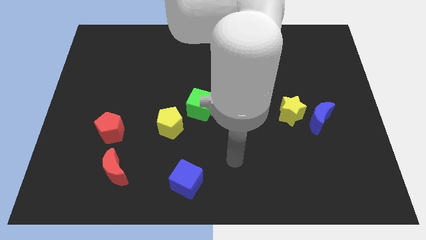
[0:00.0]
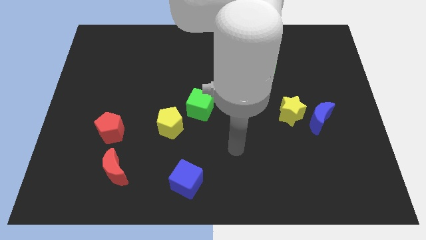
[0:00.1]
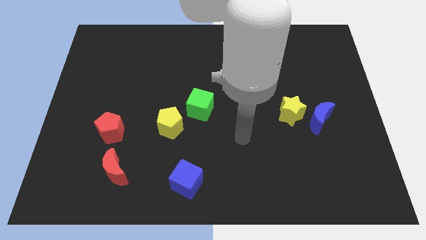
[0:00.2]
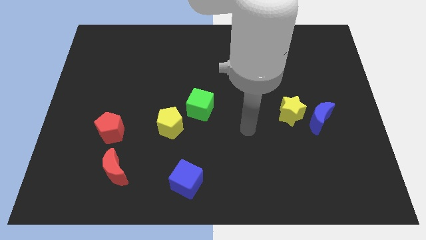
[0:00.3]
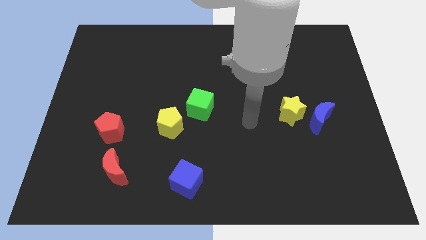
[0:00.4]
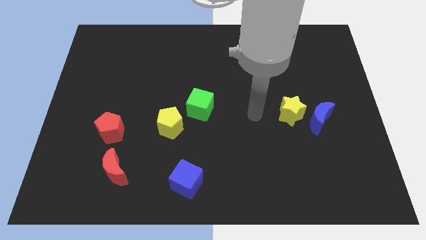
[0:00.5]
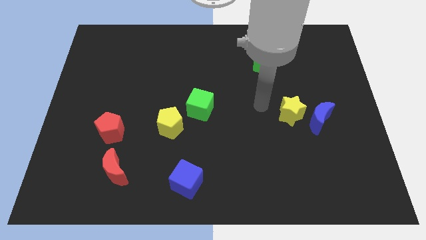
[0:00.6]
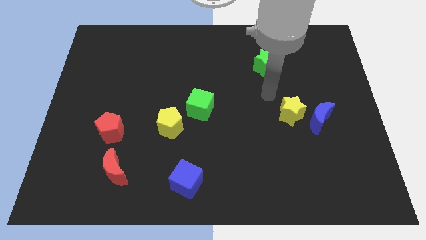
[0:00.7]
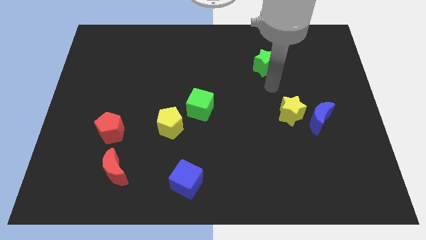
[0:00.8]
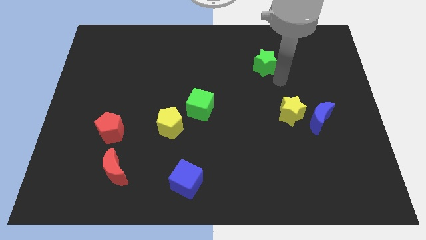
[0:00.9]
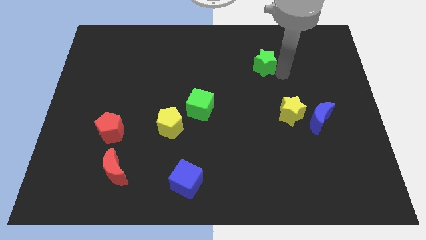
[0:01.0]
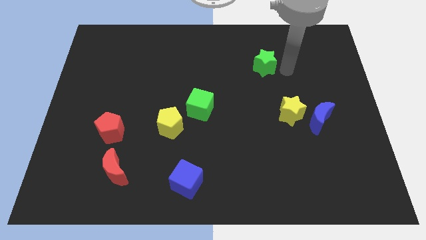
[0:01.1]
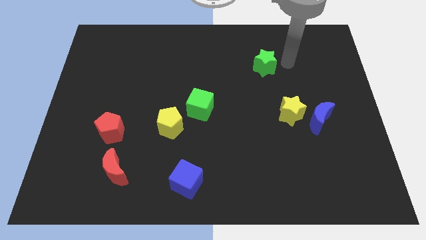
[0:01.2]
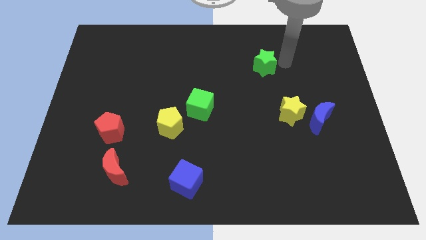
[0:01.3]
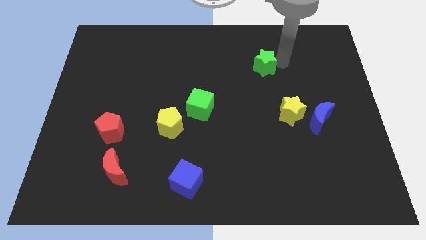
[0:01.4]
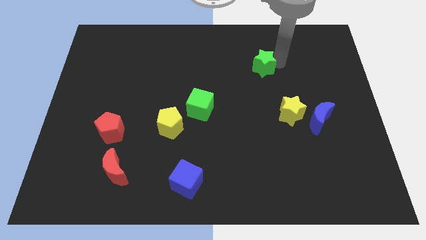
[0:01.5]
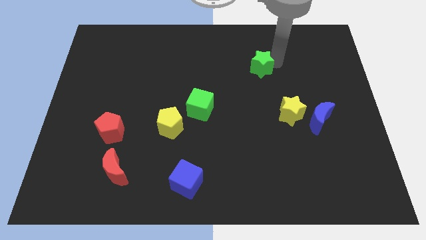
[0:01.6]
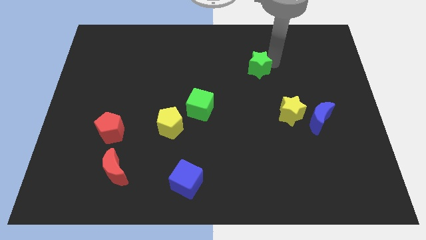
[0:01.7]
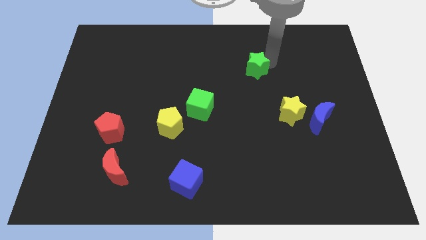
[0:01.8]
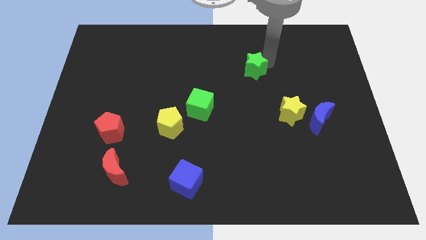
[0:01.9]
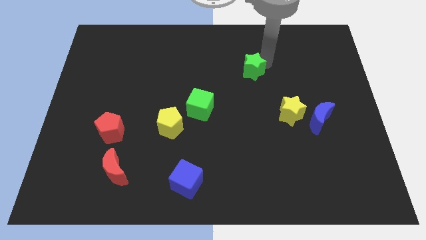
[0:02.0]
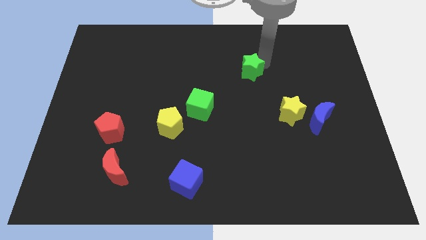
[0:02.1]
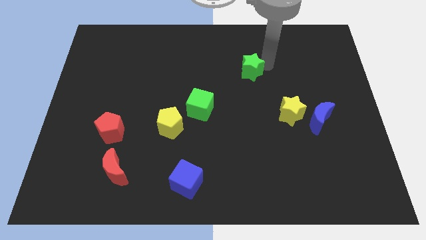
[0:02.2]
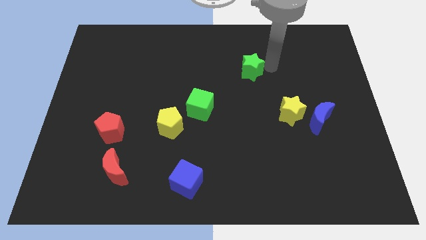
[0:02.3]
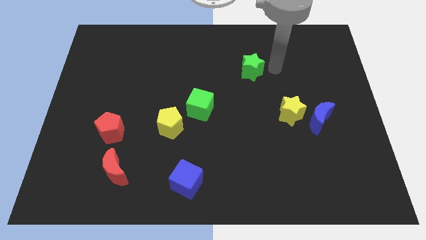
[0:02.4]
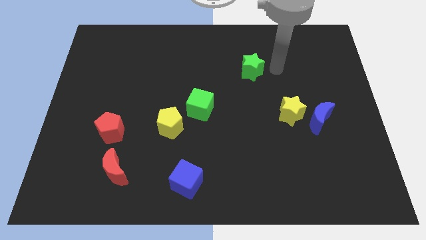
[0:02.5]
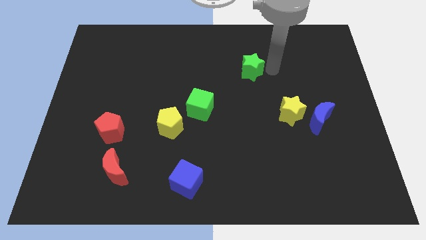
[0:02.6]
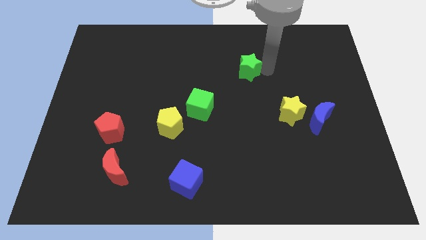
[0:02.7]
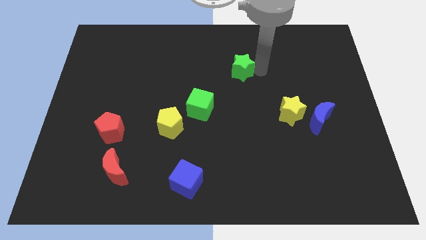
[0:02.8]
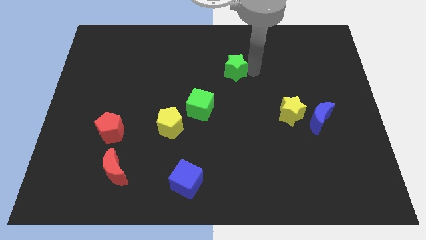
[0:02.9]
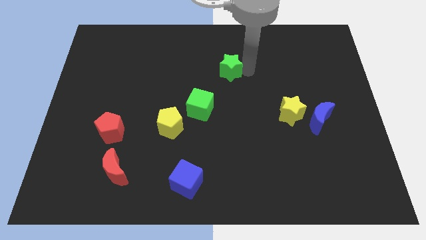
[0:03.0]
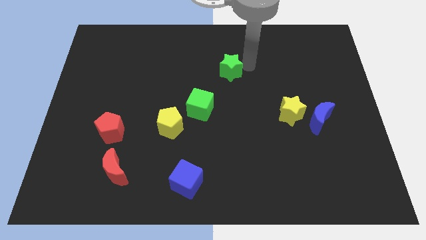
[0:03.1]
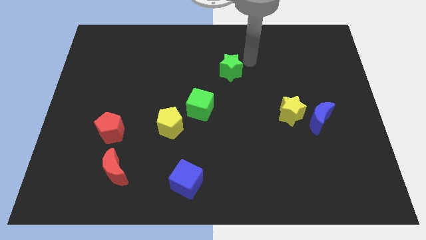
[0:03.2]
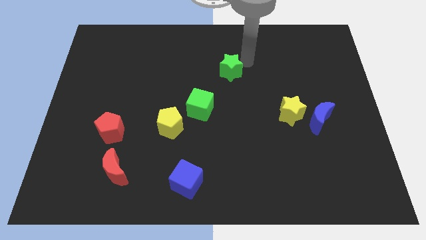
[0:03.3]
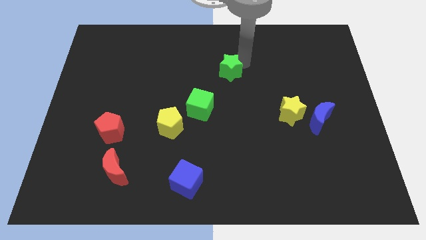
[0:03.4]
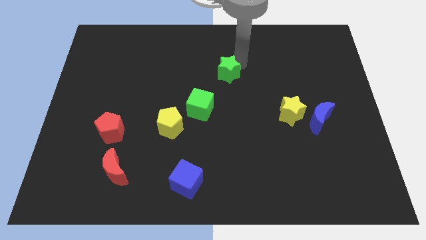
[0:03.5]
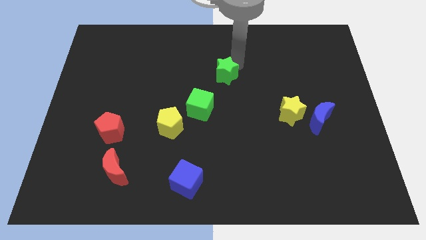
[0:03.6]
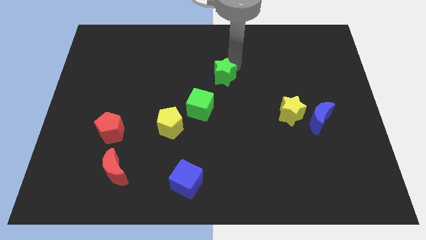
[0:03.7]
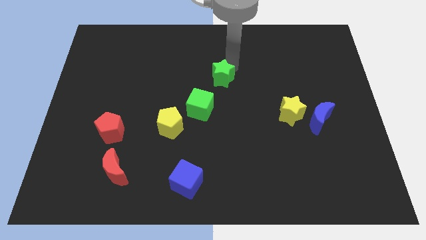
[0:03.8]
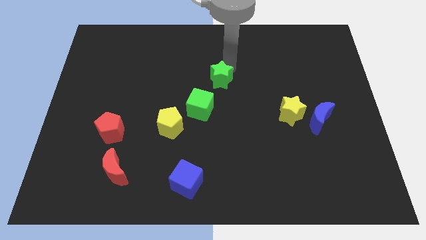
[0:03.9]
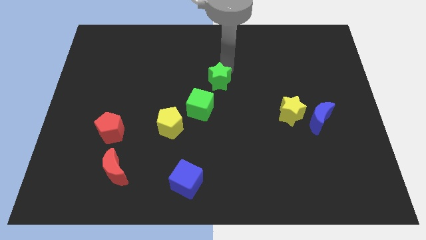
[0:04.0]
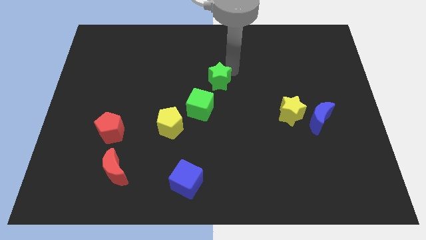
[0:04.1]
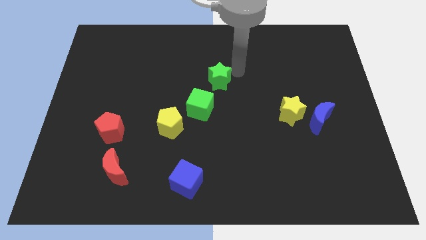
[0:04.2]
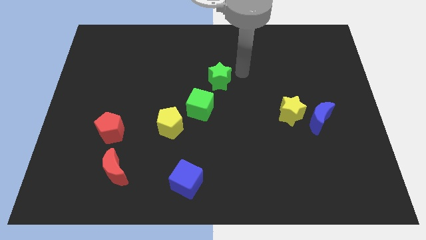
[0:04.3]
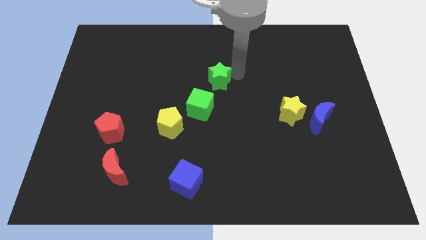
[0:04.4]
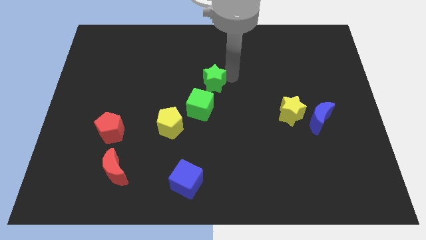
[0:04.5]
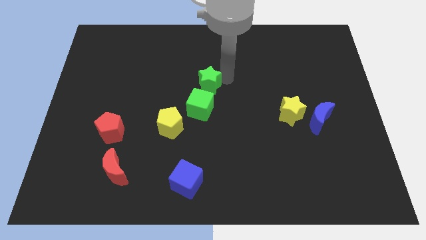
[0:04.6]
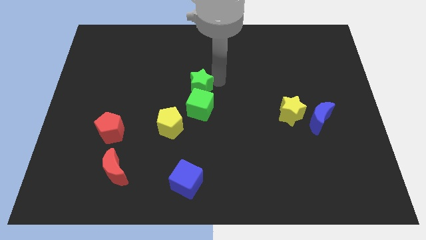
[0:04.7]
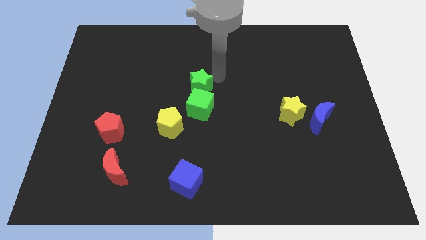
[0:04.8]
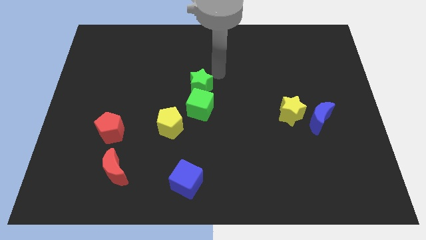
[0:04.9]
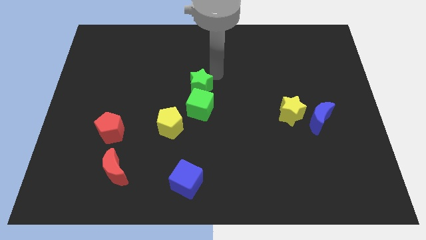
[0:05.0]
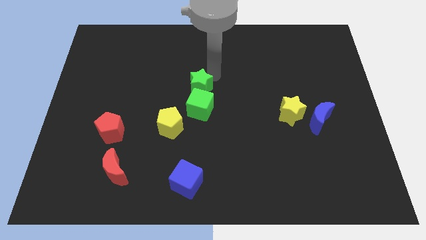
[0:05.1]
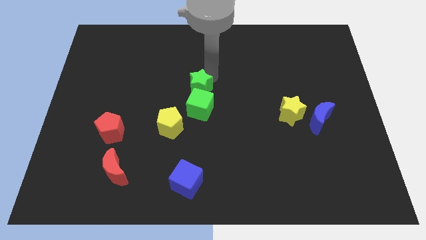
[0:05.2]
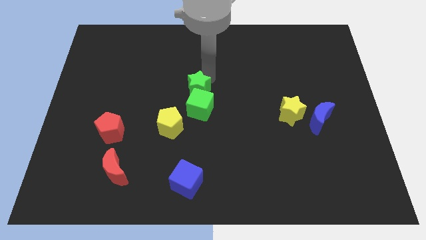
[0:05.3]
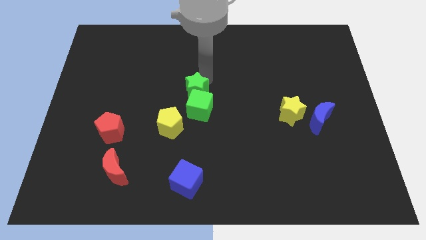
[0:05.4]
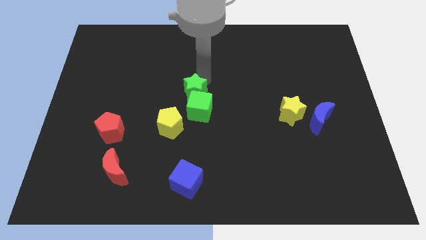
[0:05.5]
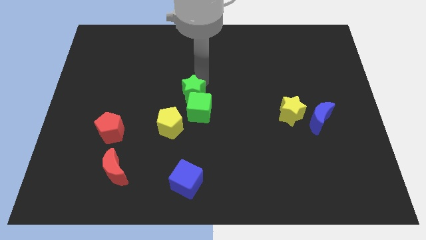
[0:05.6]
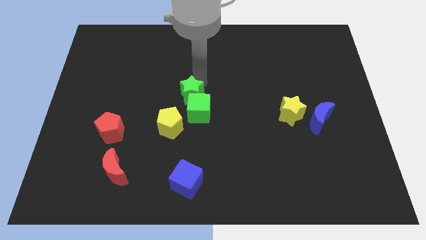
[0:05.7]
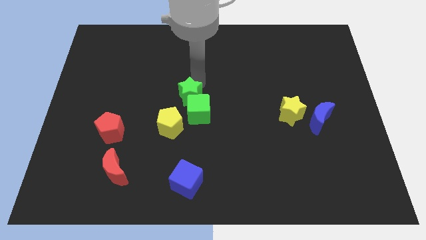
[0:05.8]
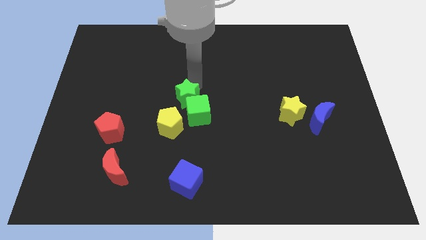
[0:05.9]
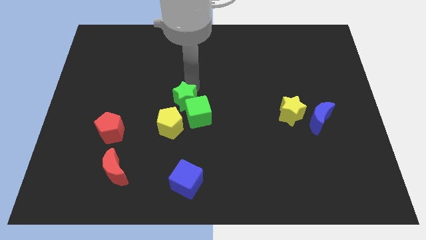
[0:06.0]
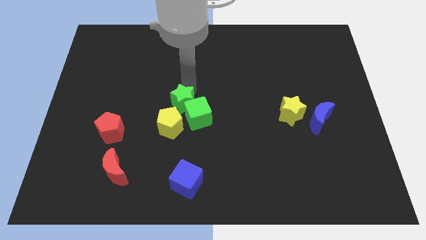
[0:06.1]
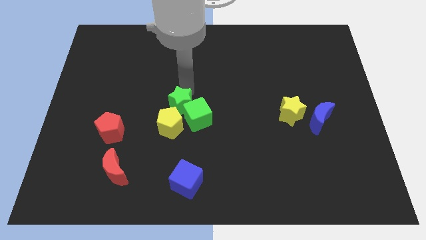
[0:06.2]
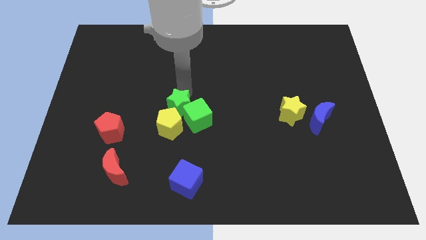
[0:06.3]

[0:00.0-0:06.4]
put the green star close to the yellow pentagon

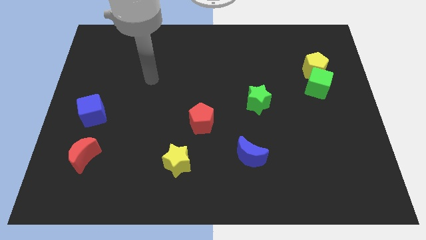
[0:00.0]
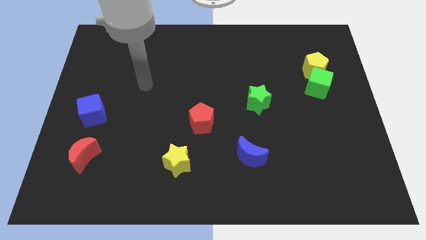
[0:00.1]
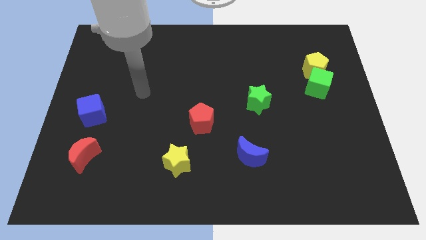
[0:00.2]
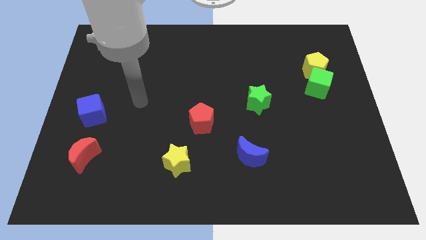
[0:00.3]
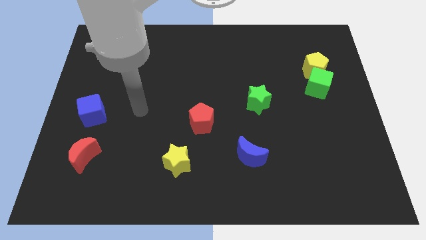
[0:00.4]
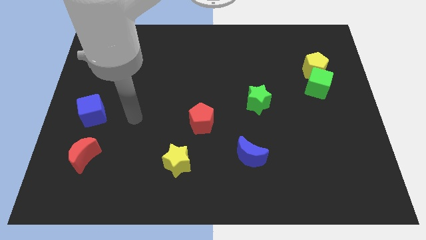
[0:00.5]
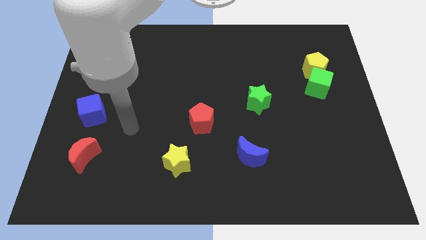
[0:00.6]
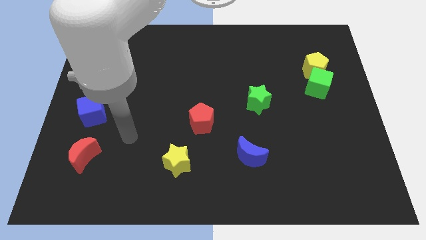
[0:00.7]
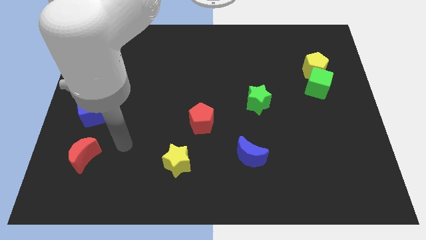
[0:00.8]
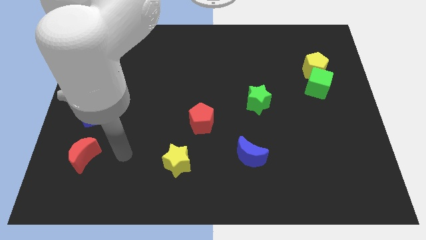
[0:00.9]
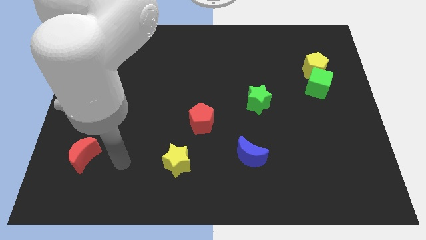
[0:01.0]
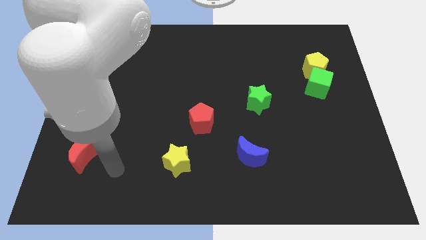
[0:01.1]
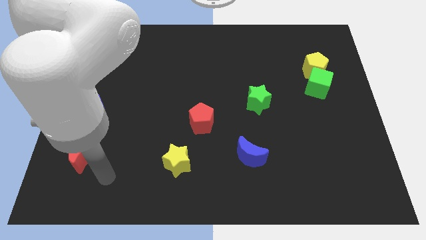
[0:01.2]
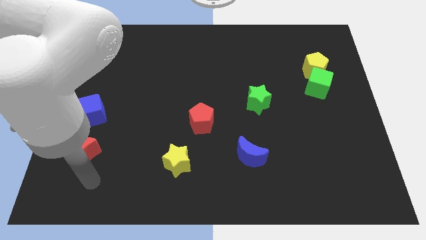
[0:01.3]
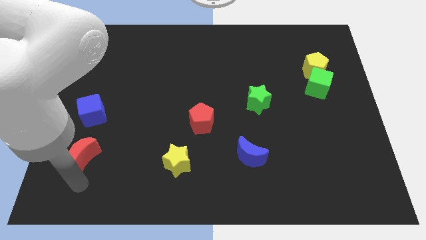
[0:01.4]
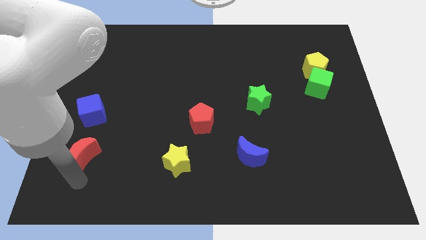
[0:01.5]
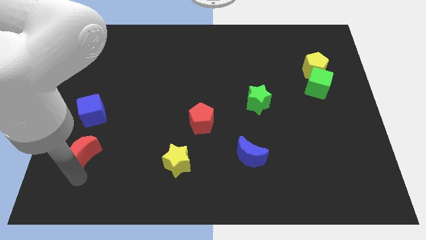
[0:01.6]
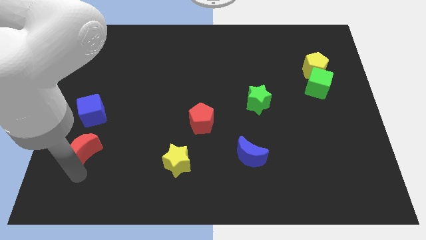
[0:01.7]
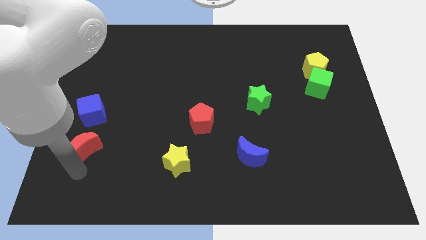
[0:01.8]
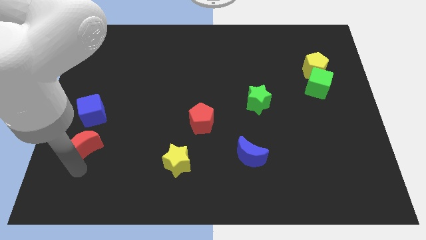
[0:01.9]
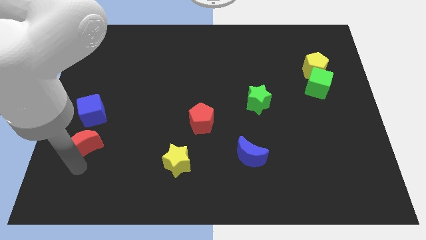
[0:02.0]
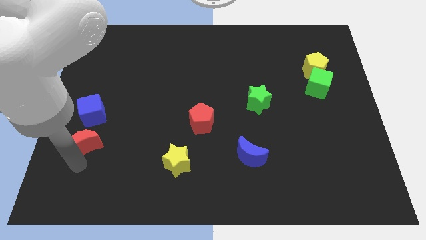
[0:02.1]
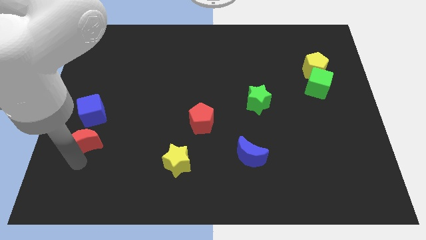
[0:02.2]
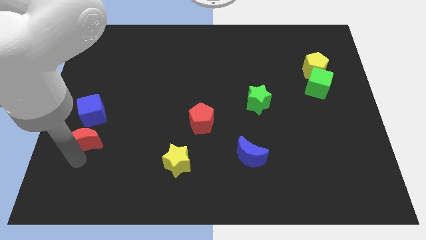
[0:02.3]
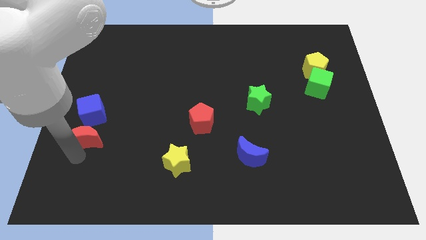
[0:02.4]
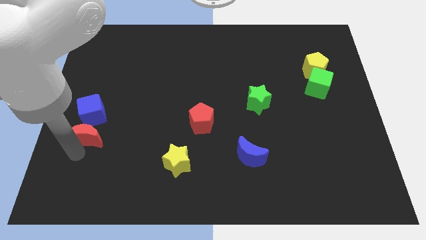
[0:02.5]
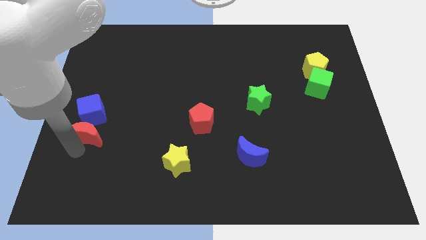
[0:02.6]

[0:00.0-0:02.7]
put the red moon close to the blue cube
